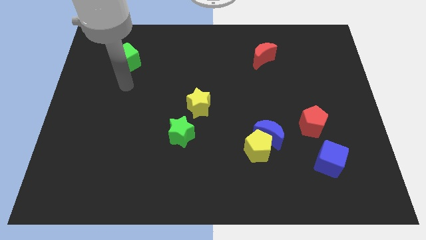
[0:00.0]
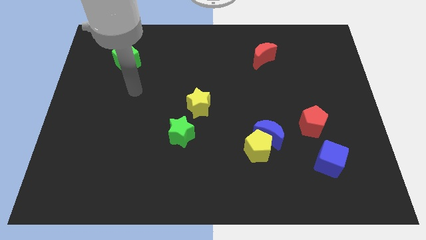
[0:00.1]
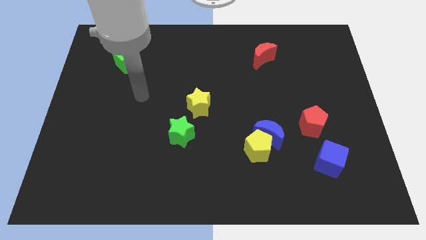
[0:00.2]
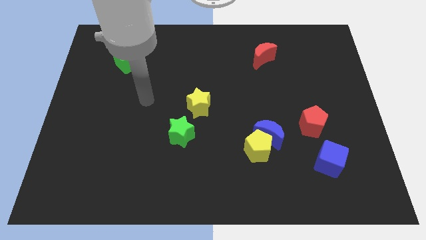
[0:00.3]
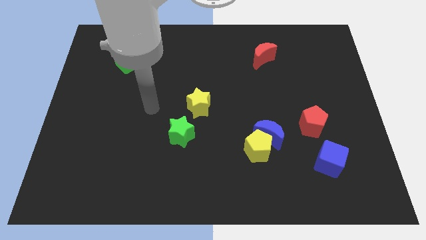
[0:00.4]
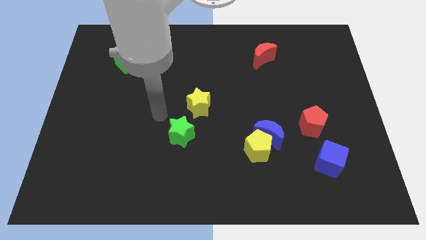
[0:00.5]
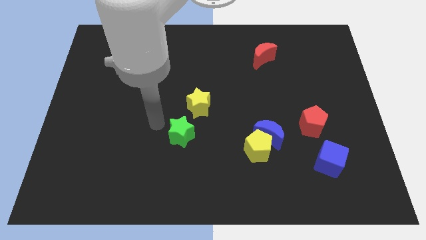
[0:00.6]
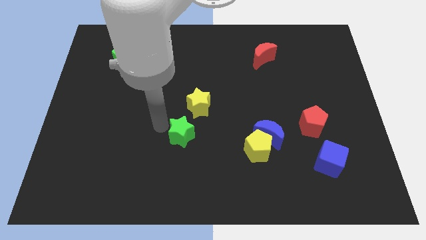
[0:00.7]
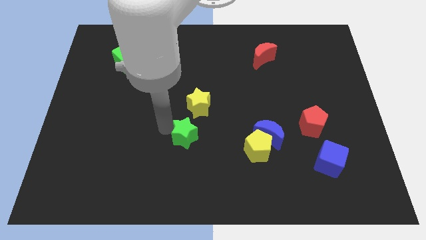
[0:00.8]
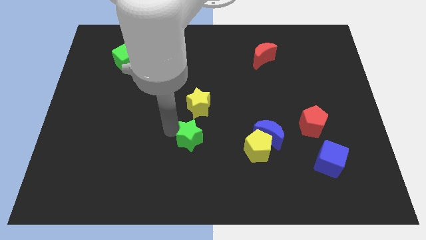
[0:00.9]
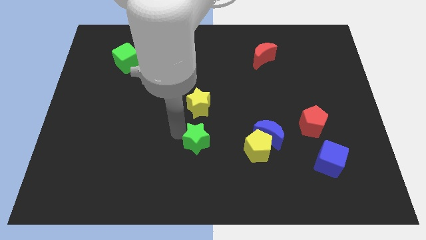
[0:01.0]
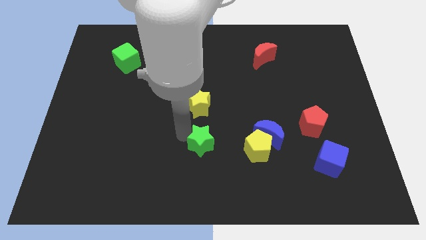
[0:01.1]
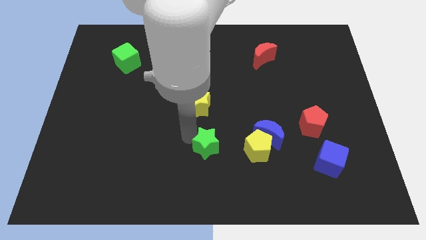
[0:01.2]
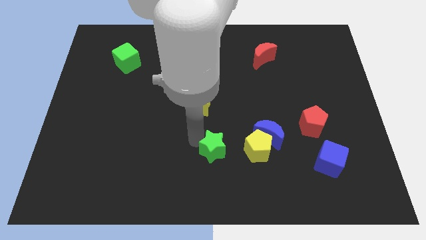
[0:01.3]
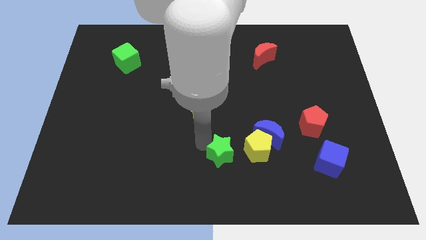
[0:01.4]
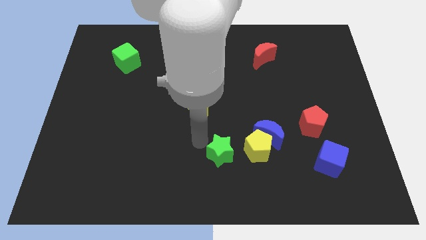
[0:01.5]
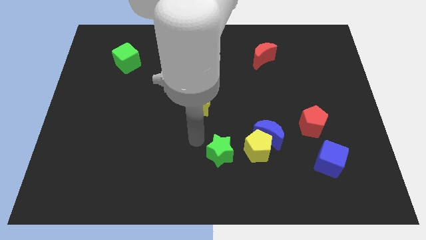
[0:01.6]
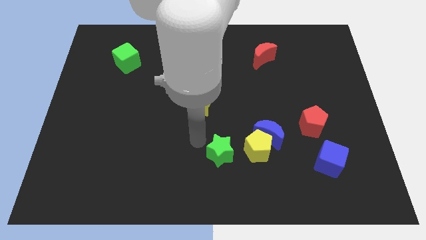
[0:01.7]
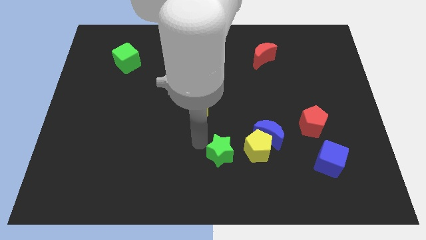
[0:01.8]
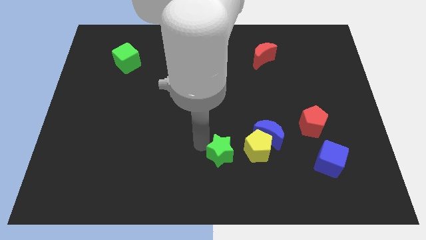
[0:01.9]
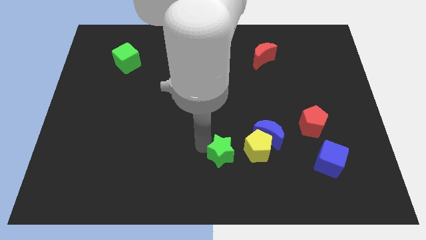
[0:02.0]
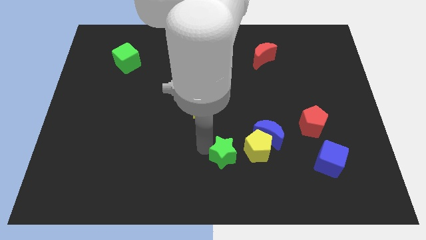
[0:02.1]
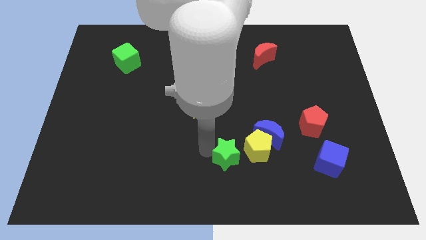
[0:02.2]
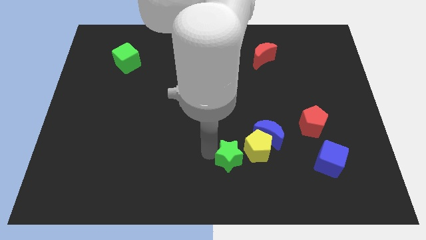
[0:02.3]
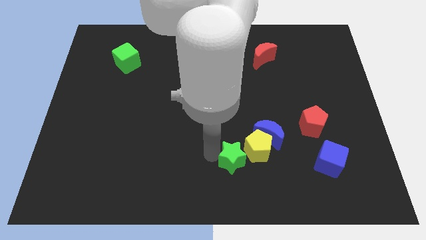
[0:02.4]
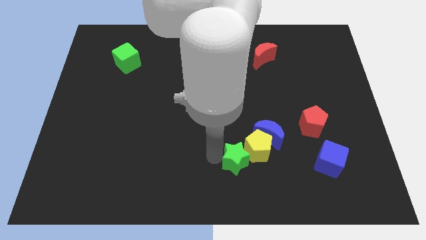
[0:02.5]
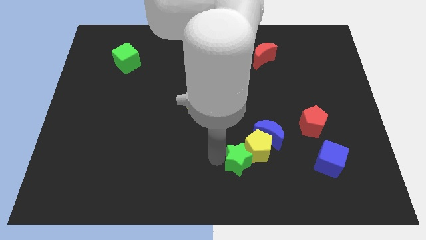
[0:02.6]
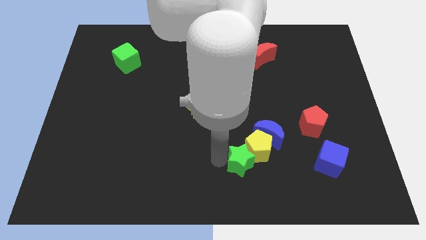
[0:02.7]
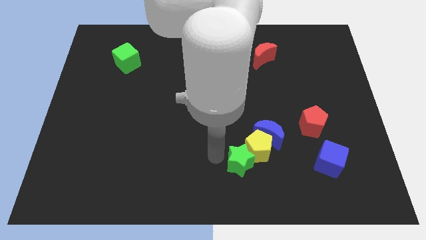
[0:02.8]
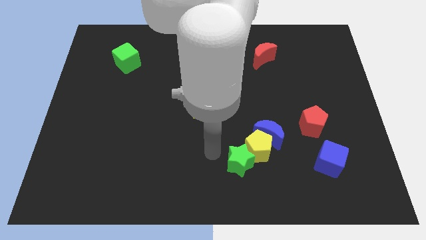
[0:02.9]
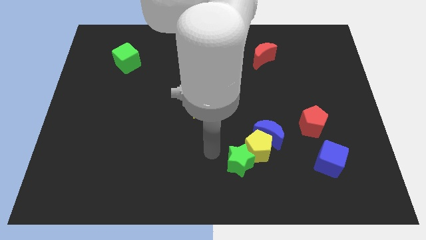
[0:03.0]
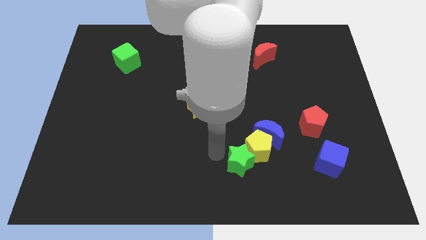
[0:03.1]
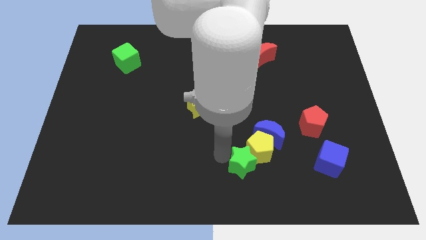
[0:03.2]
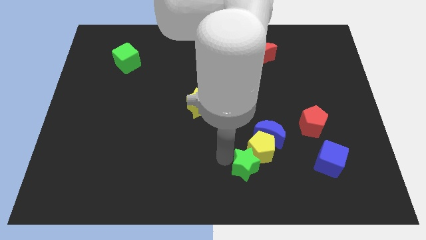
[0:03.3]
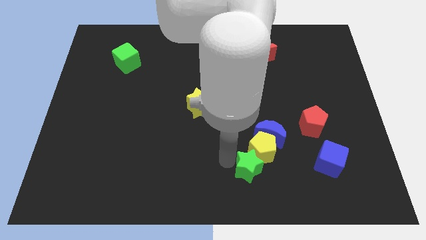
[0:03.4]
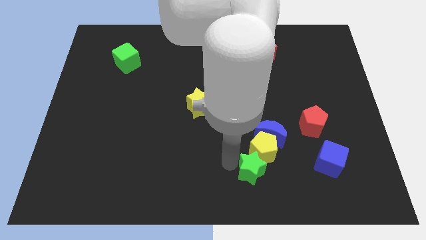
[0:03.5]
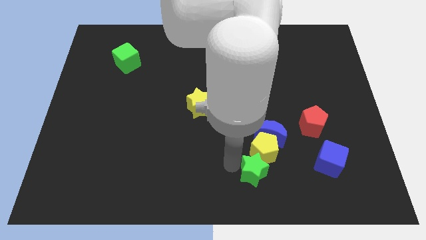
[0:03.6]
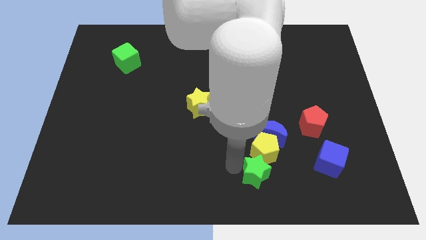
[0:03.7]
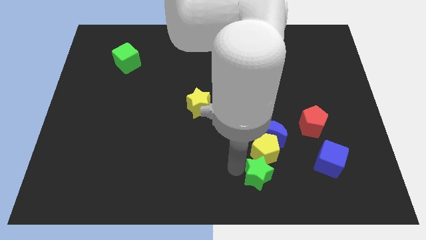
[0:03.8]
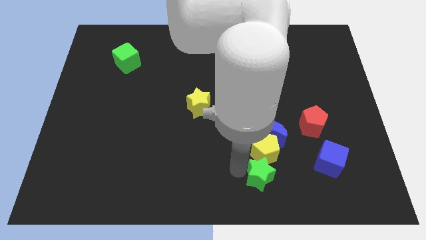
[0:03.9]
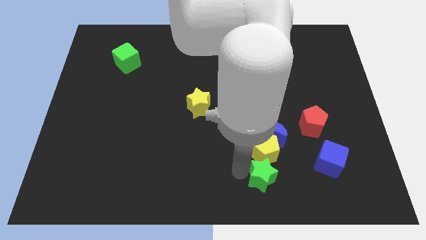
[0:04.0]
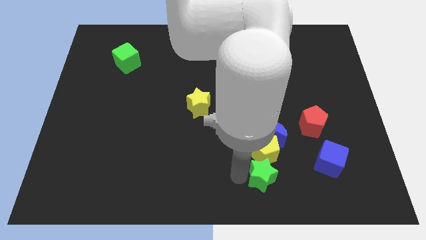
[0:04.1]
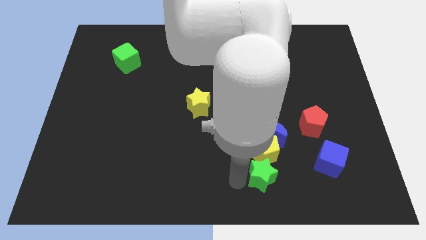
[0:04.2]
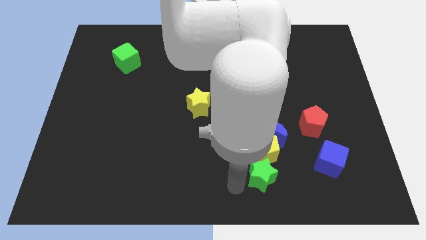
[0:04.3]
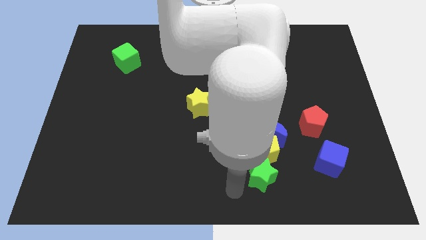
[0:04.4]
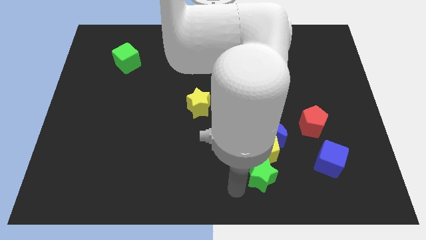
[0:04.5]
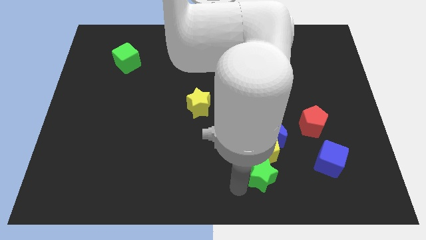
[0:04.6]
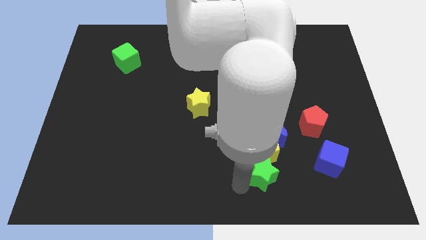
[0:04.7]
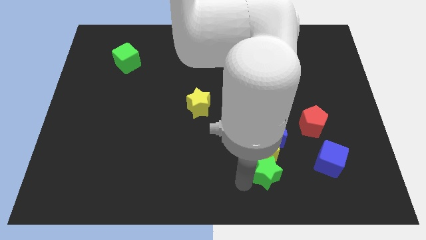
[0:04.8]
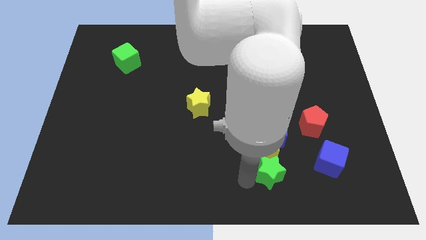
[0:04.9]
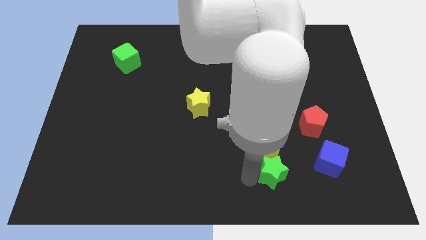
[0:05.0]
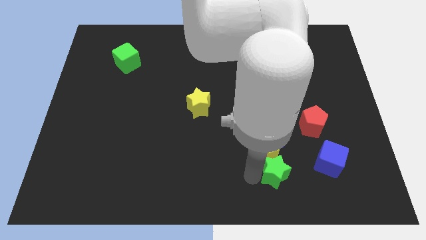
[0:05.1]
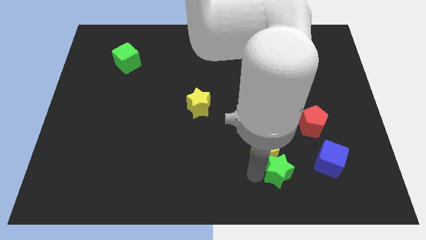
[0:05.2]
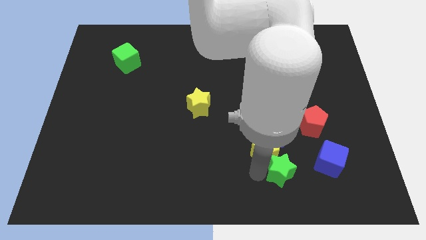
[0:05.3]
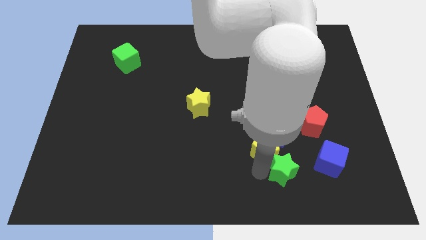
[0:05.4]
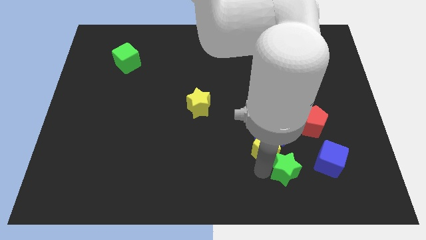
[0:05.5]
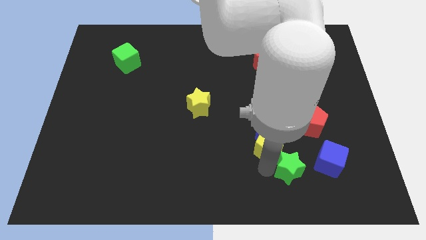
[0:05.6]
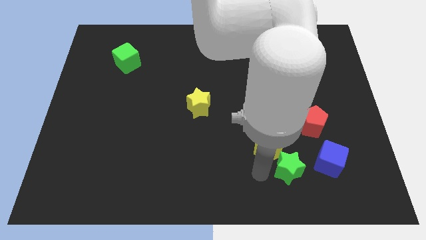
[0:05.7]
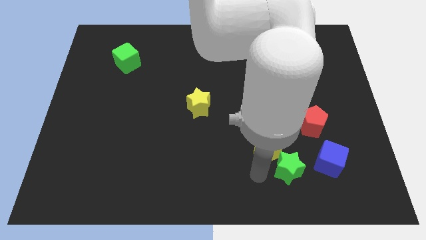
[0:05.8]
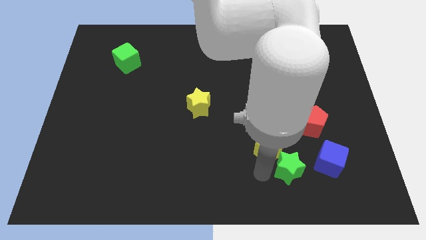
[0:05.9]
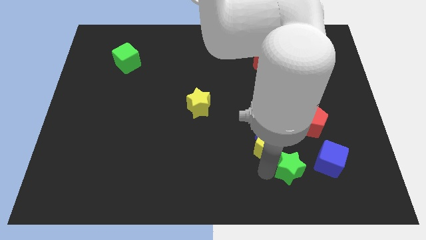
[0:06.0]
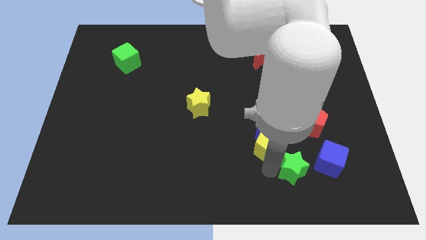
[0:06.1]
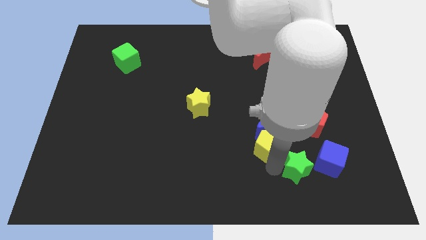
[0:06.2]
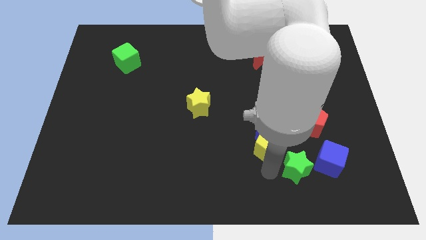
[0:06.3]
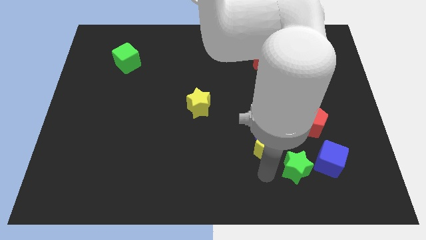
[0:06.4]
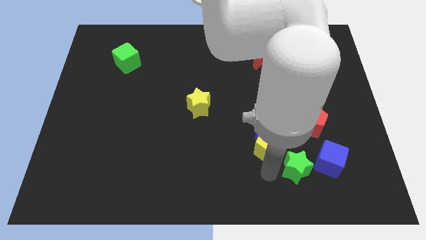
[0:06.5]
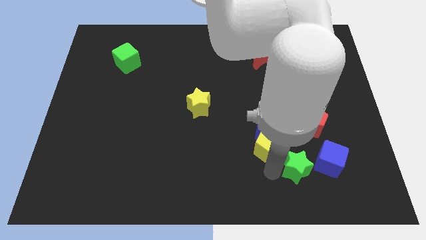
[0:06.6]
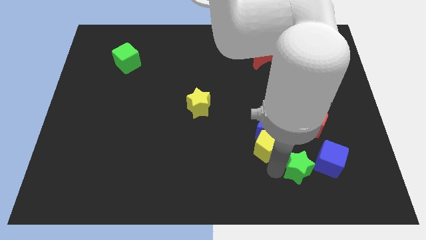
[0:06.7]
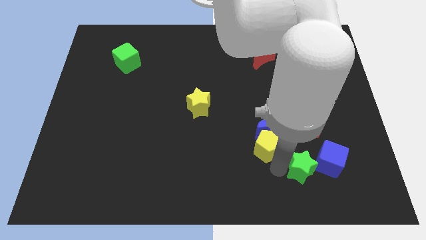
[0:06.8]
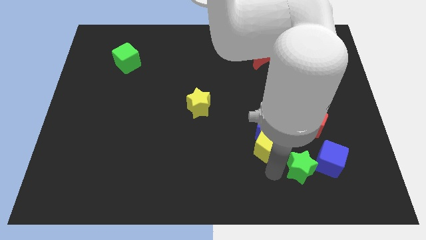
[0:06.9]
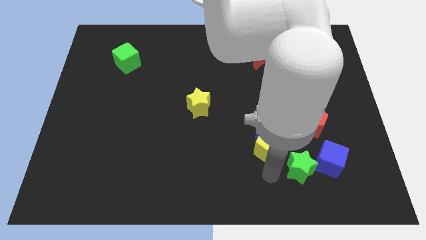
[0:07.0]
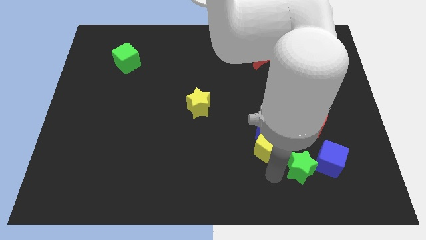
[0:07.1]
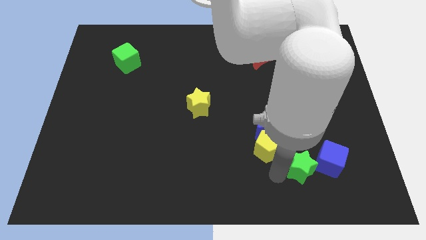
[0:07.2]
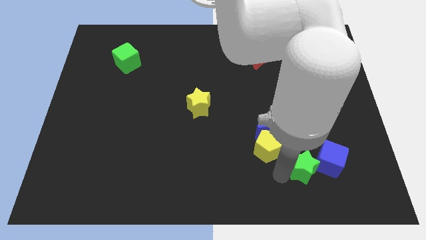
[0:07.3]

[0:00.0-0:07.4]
push the green star close to the blue cube
